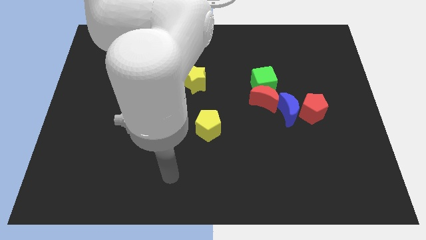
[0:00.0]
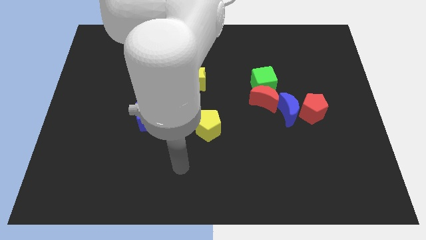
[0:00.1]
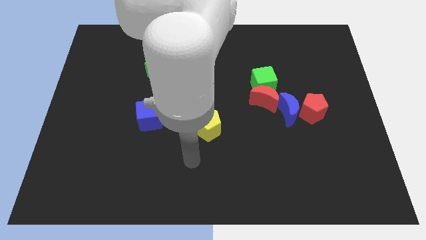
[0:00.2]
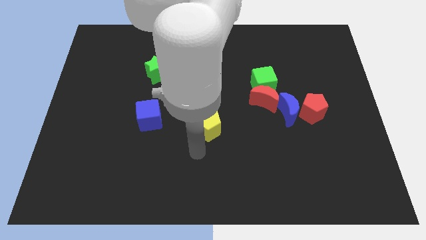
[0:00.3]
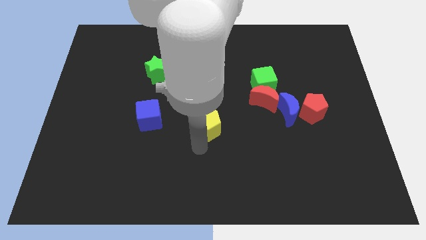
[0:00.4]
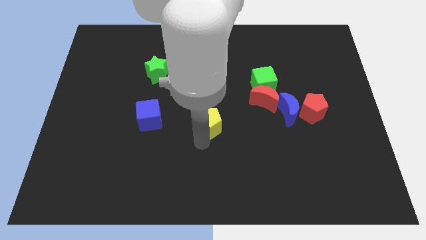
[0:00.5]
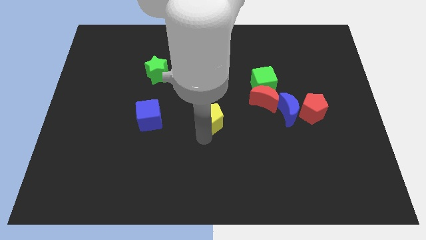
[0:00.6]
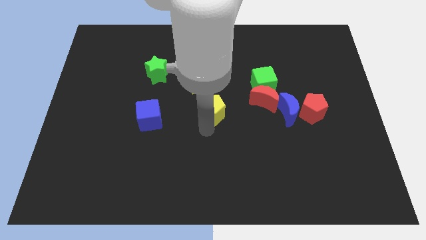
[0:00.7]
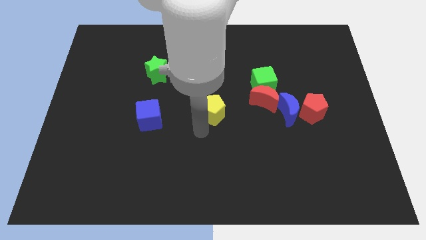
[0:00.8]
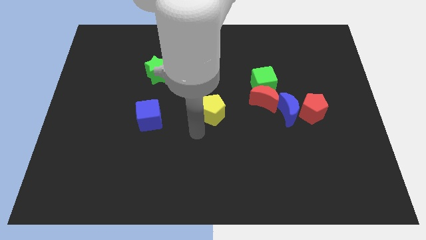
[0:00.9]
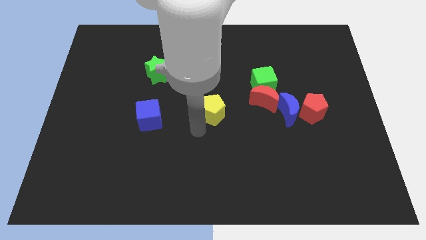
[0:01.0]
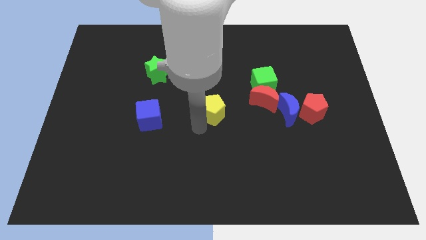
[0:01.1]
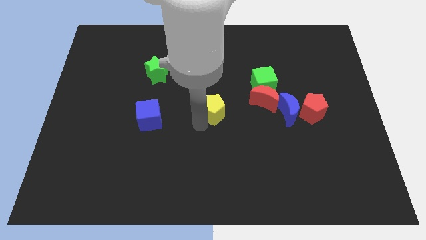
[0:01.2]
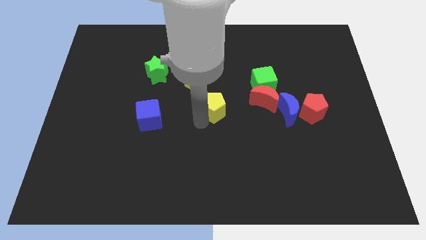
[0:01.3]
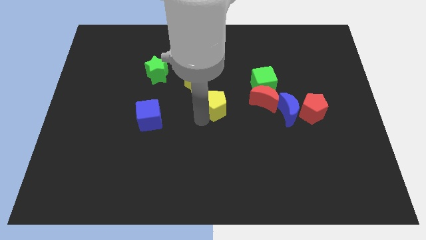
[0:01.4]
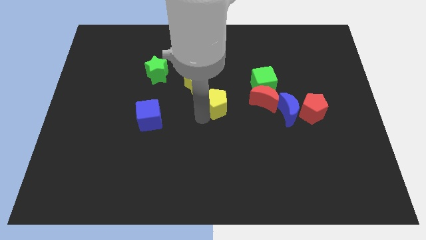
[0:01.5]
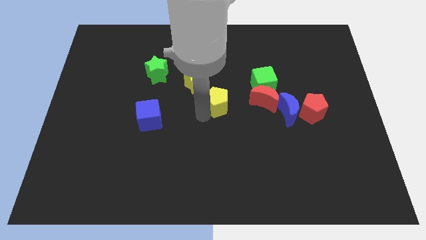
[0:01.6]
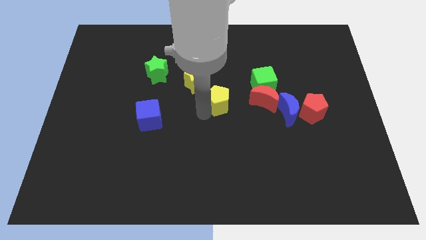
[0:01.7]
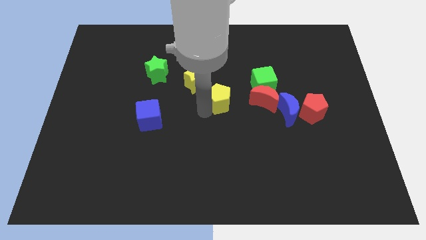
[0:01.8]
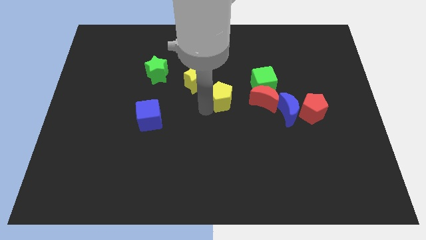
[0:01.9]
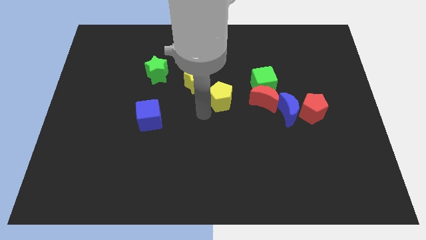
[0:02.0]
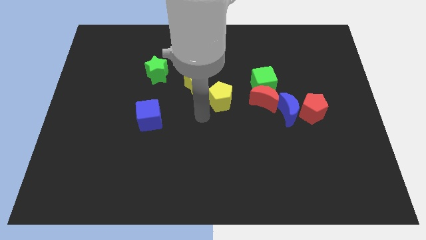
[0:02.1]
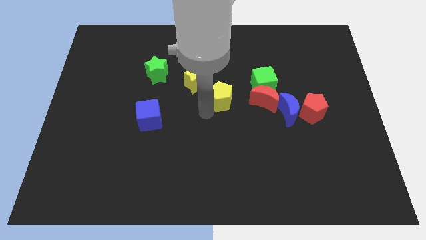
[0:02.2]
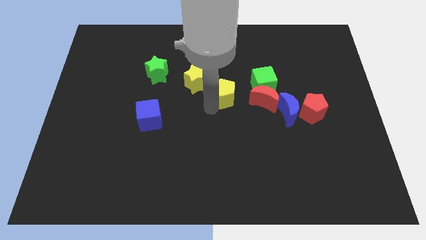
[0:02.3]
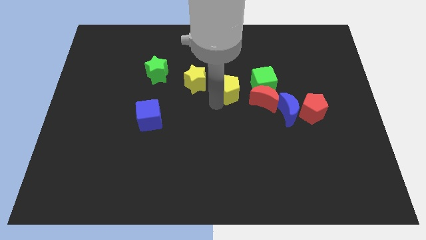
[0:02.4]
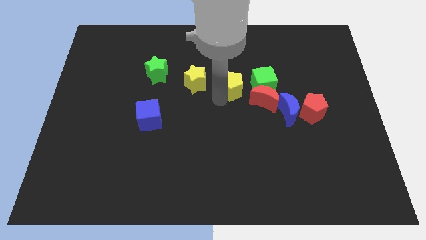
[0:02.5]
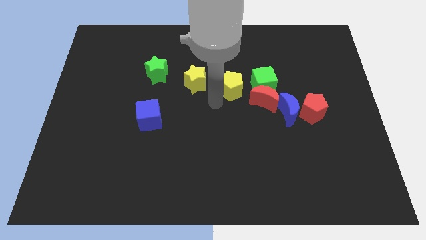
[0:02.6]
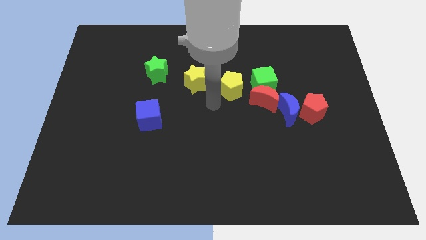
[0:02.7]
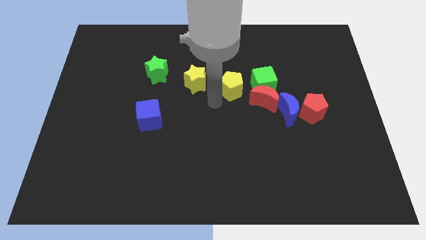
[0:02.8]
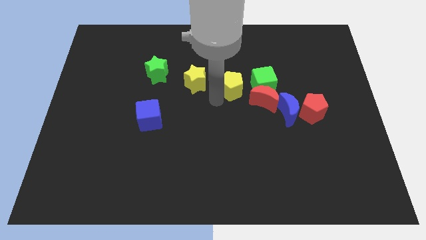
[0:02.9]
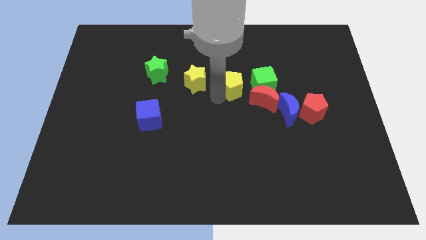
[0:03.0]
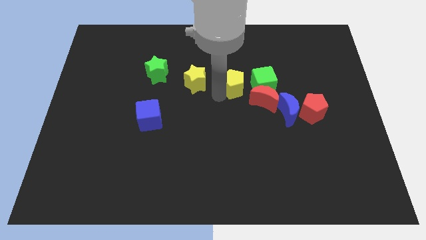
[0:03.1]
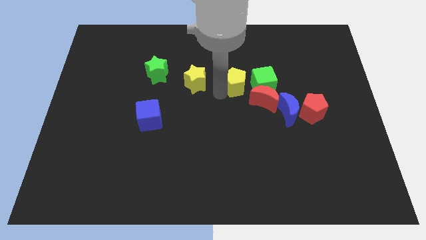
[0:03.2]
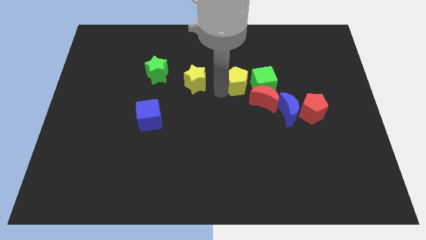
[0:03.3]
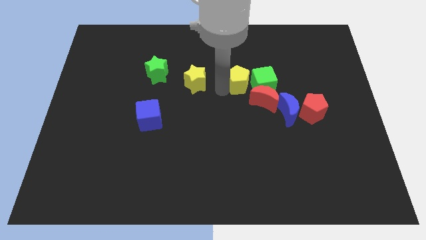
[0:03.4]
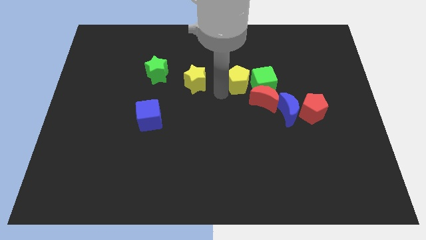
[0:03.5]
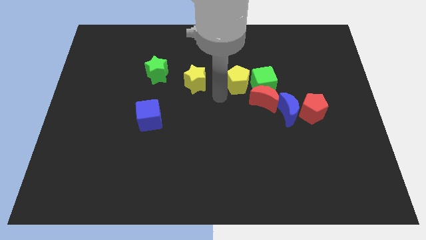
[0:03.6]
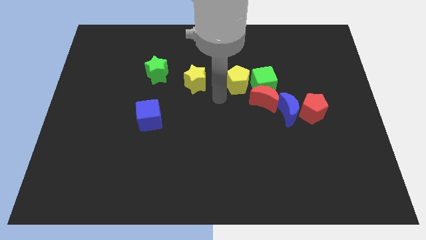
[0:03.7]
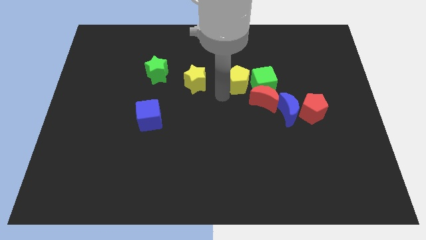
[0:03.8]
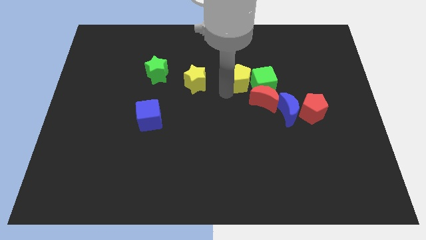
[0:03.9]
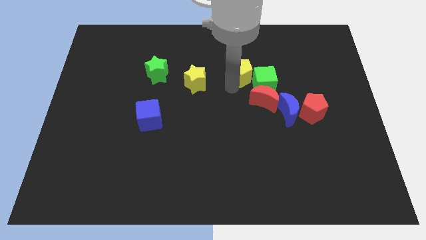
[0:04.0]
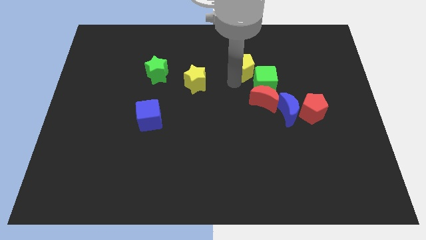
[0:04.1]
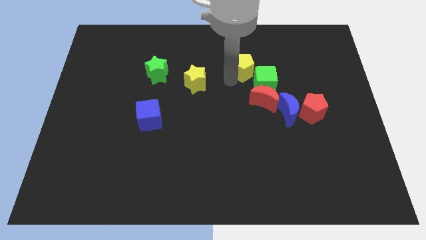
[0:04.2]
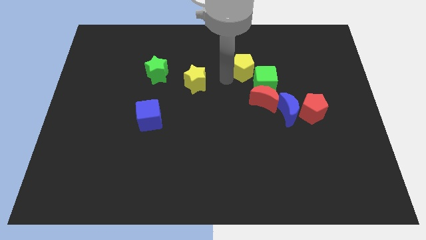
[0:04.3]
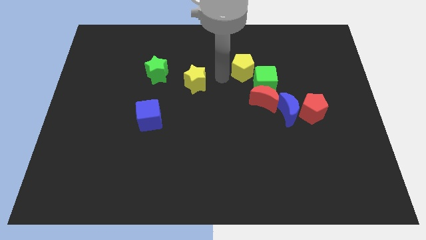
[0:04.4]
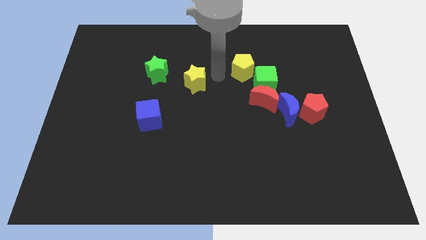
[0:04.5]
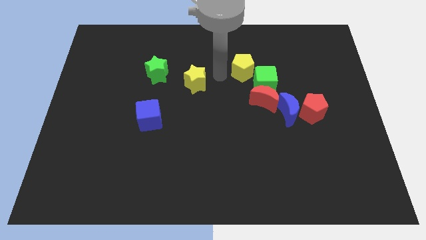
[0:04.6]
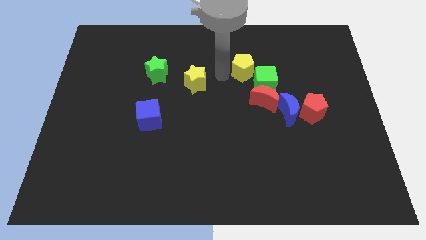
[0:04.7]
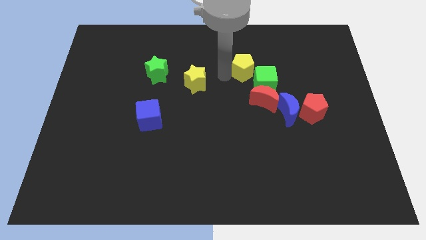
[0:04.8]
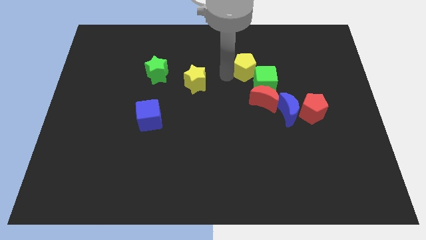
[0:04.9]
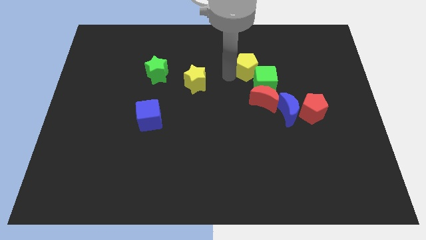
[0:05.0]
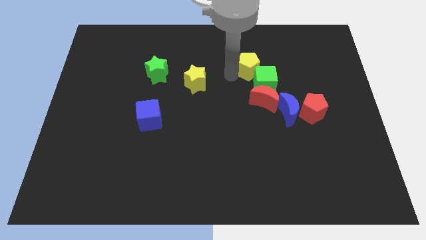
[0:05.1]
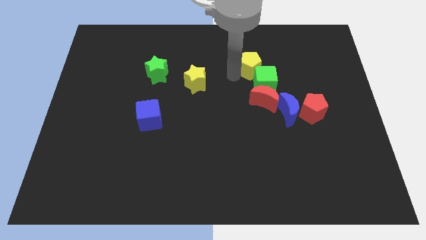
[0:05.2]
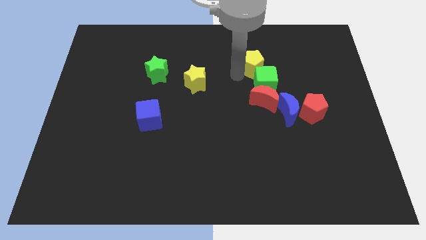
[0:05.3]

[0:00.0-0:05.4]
push the yellow pentagon diagonally upwards and to the right

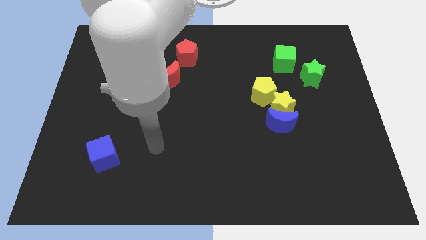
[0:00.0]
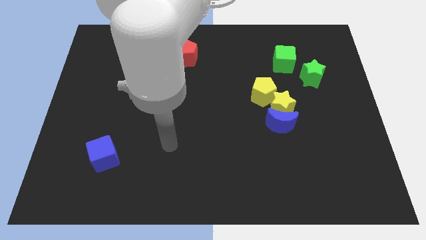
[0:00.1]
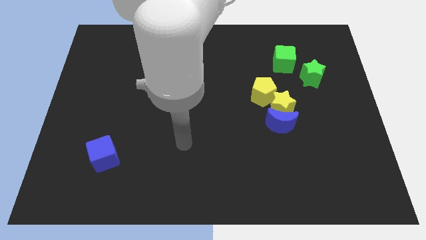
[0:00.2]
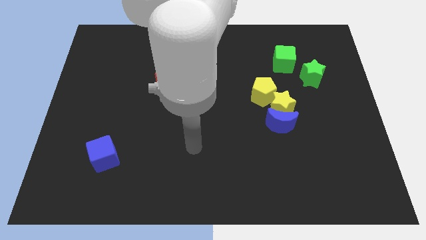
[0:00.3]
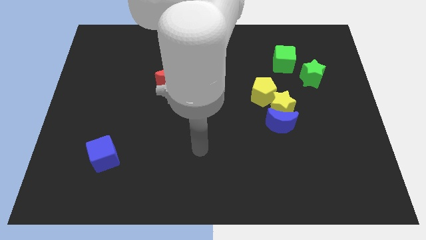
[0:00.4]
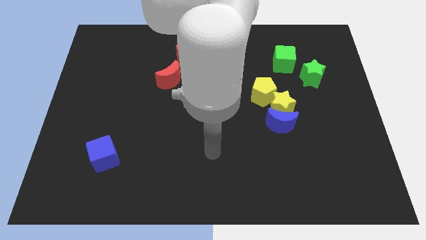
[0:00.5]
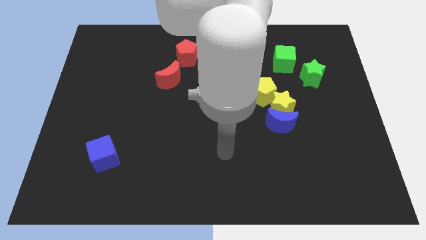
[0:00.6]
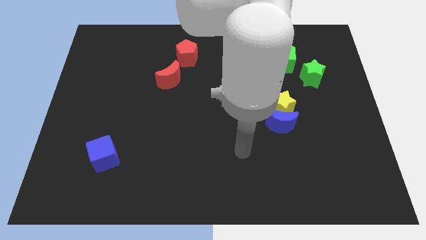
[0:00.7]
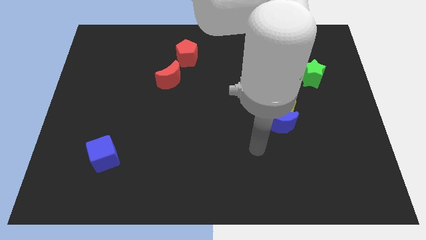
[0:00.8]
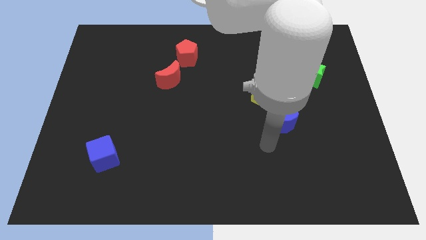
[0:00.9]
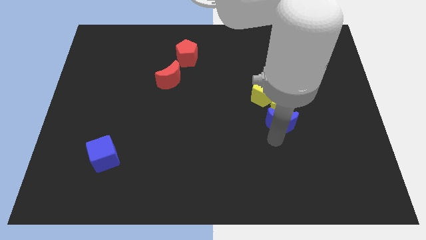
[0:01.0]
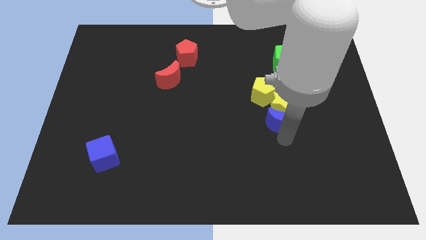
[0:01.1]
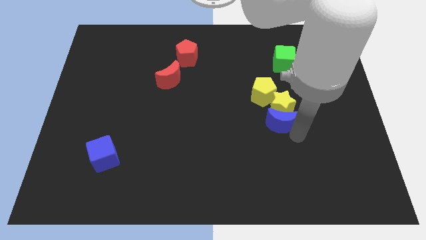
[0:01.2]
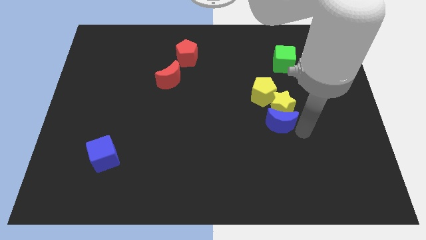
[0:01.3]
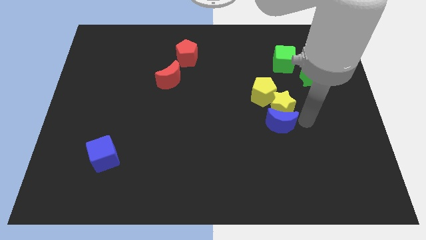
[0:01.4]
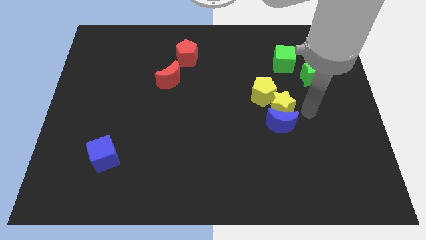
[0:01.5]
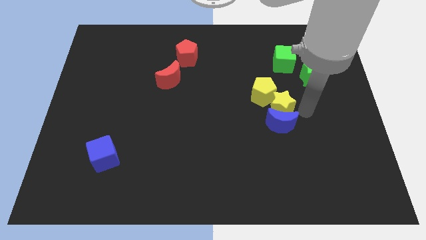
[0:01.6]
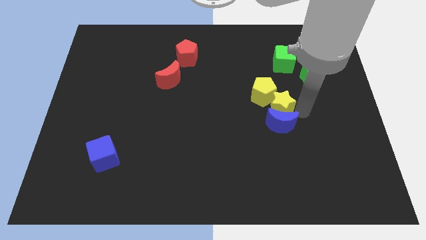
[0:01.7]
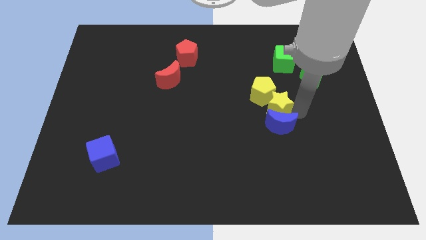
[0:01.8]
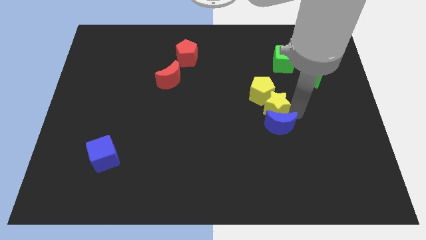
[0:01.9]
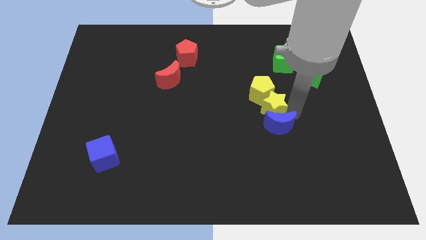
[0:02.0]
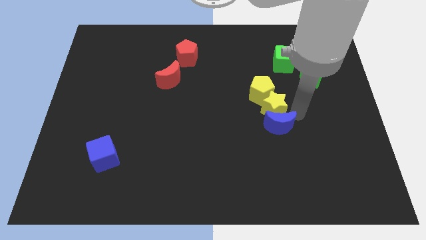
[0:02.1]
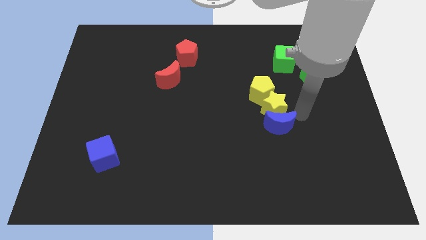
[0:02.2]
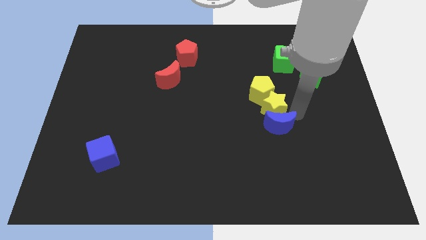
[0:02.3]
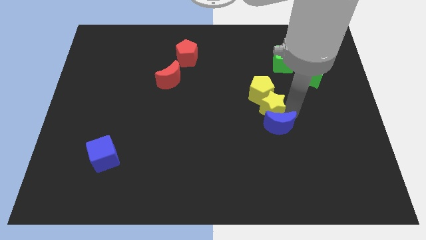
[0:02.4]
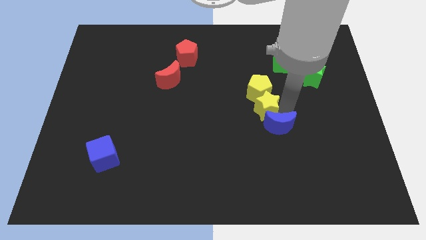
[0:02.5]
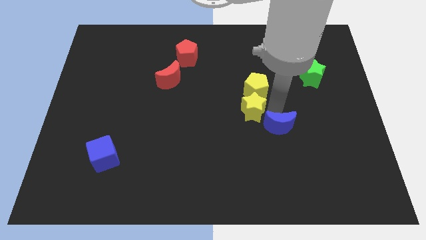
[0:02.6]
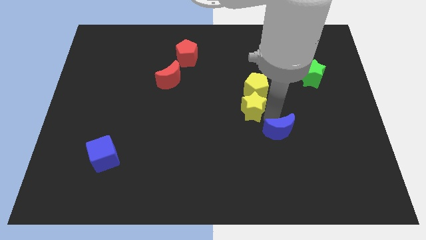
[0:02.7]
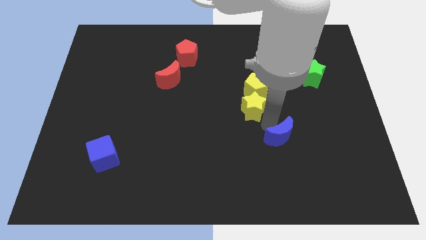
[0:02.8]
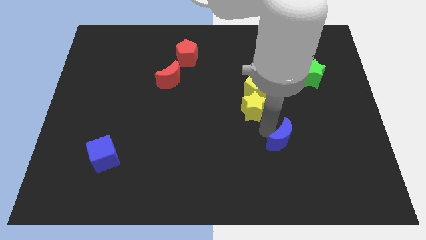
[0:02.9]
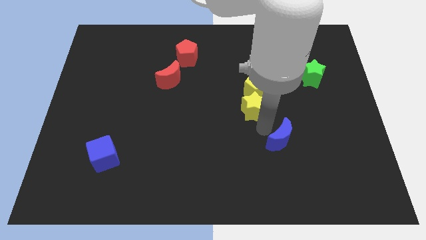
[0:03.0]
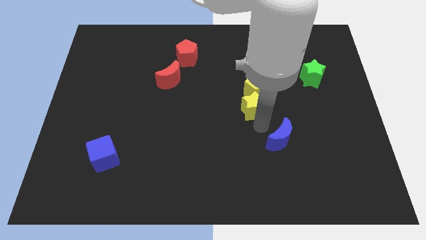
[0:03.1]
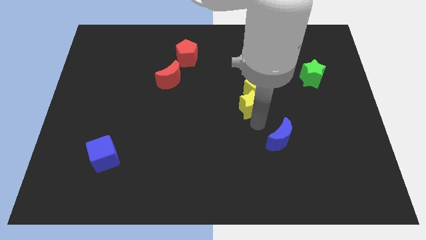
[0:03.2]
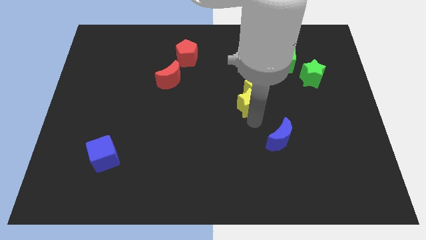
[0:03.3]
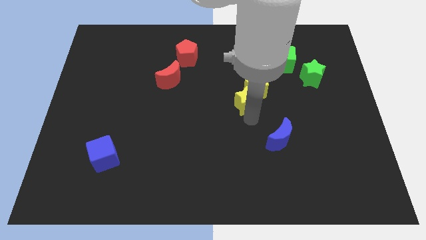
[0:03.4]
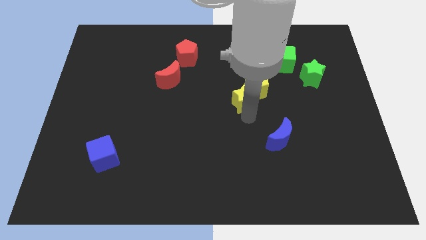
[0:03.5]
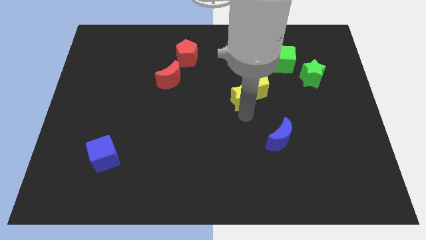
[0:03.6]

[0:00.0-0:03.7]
move the yellow star up and then to the left a little bit
